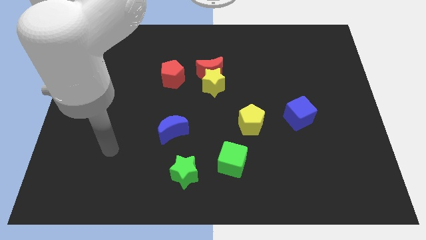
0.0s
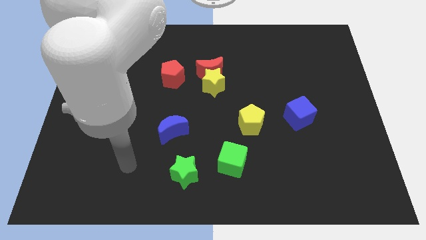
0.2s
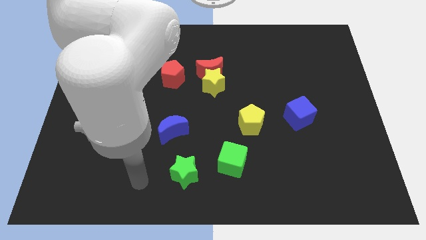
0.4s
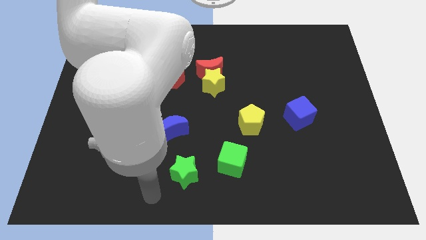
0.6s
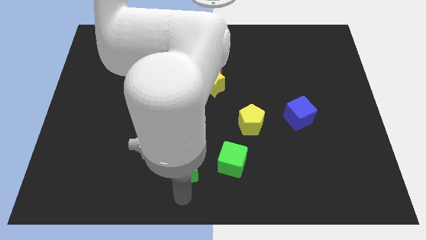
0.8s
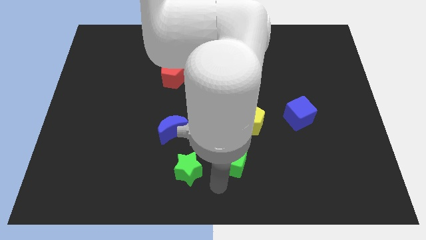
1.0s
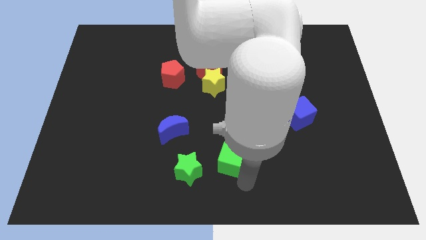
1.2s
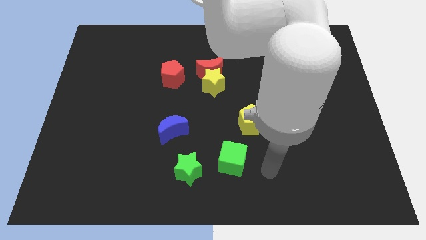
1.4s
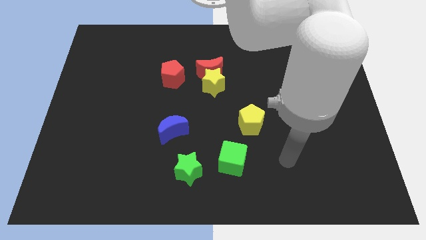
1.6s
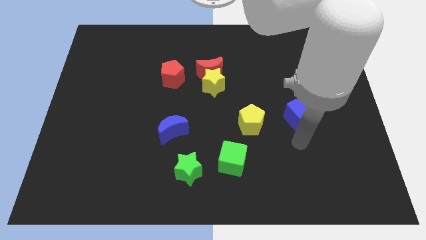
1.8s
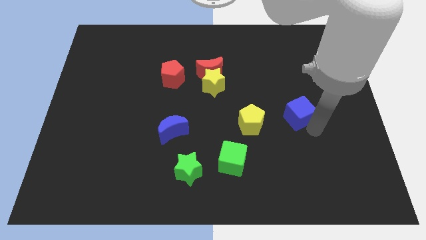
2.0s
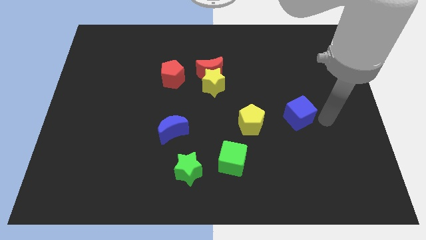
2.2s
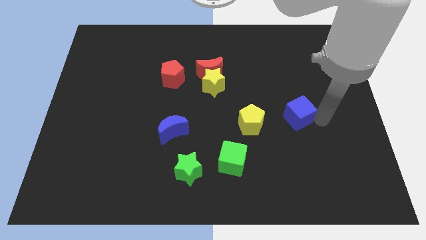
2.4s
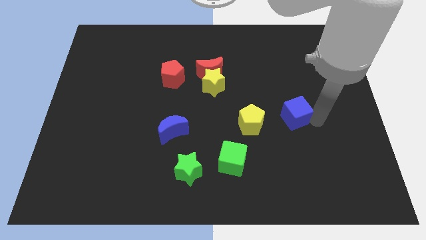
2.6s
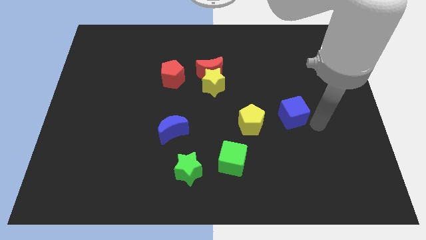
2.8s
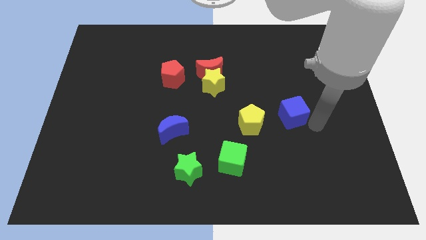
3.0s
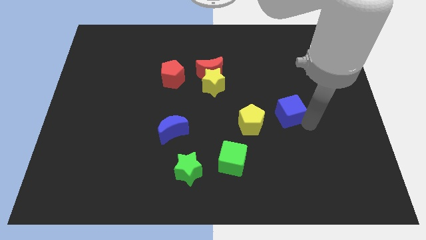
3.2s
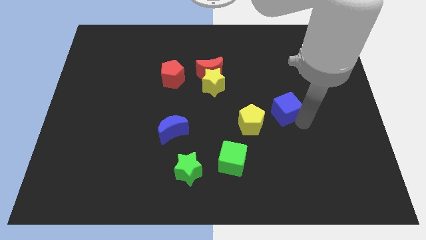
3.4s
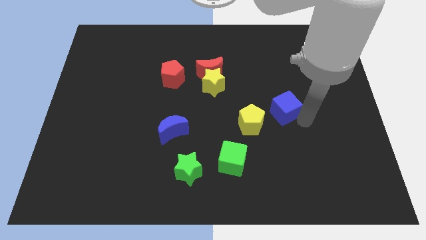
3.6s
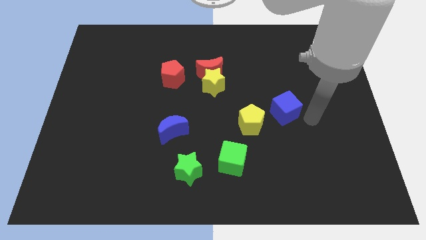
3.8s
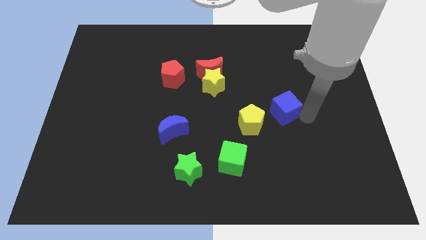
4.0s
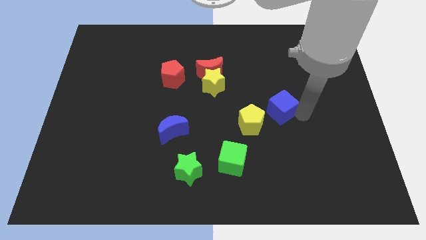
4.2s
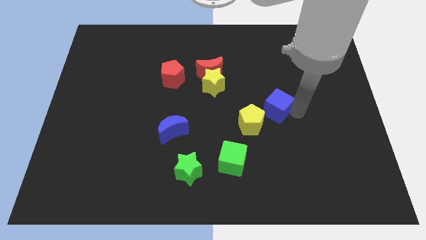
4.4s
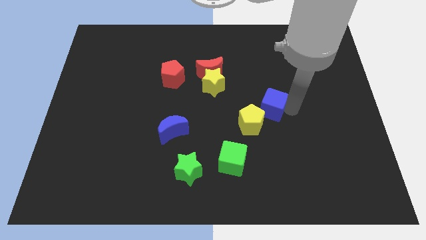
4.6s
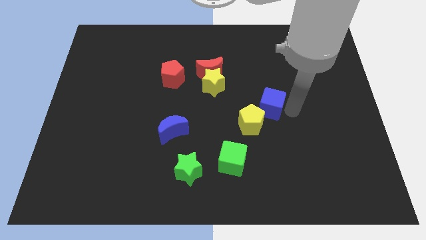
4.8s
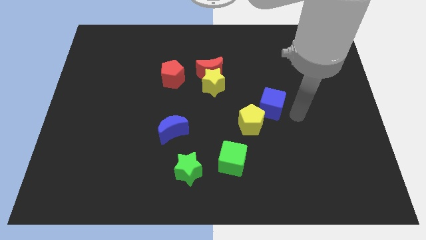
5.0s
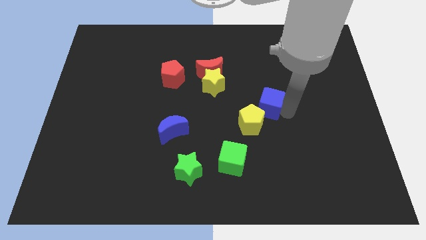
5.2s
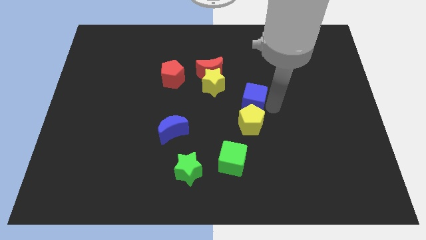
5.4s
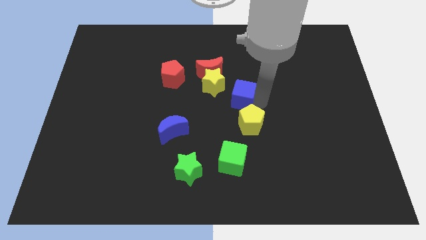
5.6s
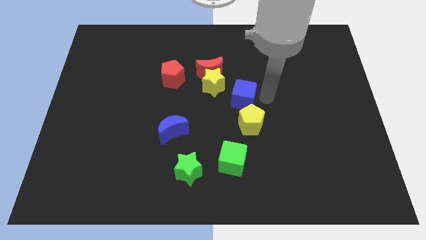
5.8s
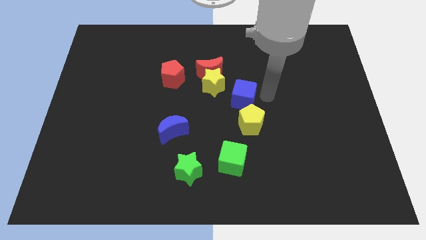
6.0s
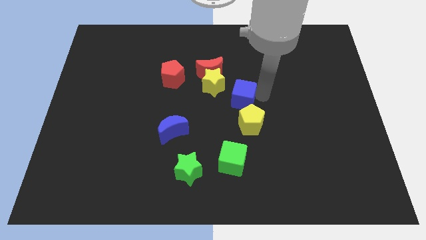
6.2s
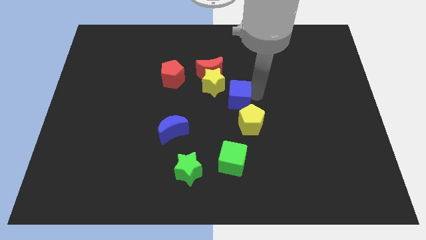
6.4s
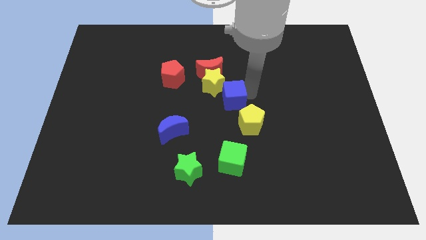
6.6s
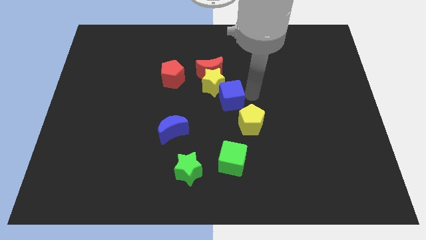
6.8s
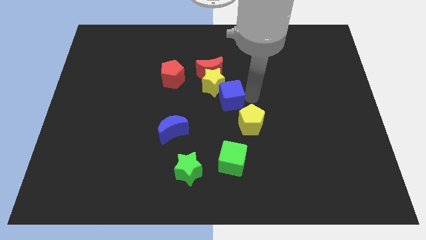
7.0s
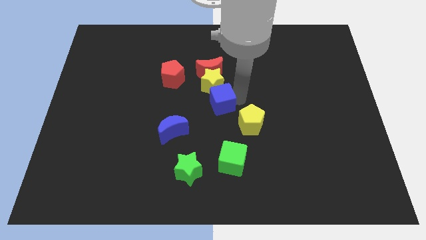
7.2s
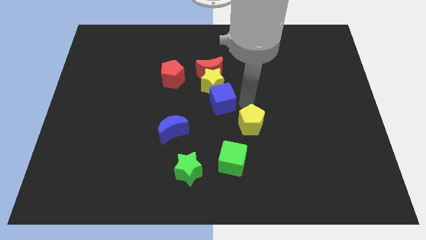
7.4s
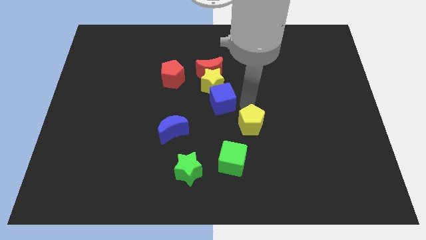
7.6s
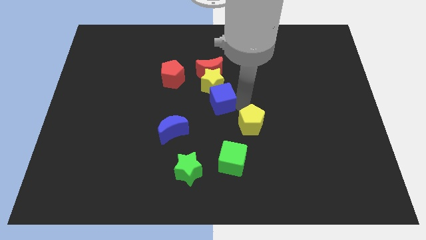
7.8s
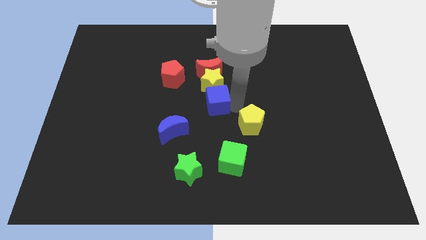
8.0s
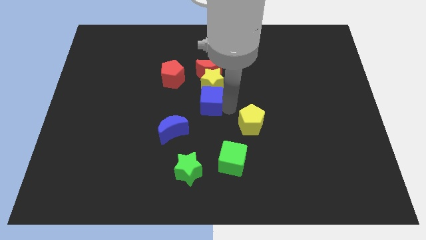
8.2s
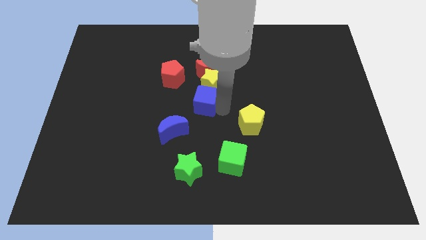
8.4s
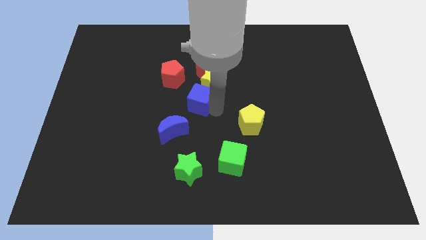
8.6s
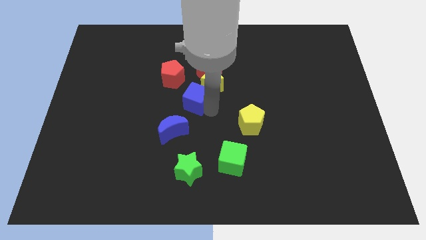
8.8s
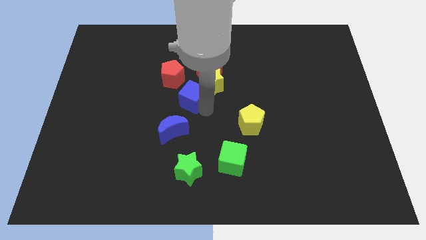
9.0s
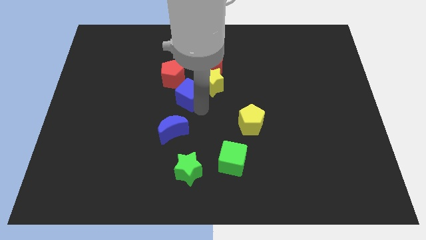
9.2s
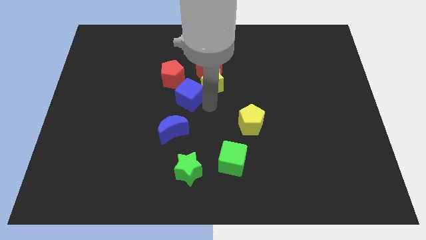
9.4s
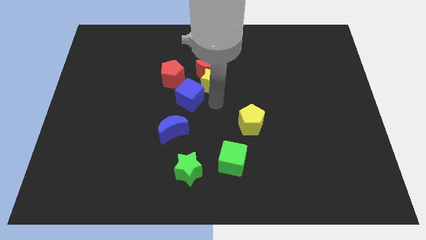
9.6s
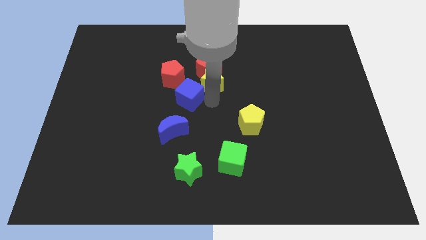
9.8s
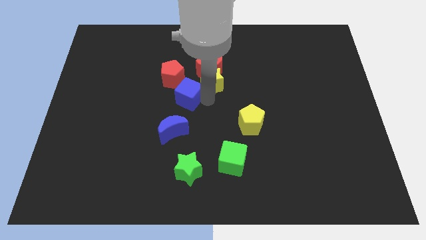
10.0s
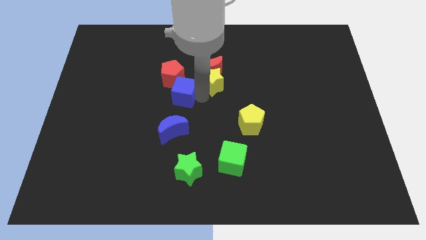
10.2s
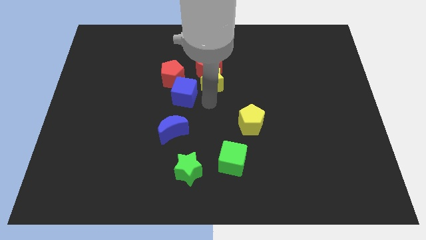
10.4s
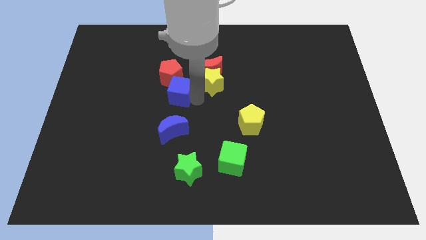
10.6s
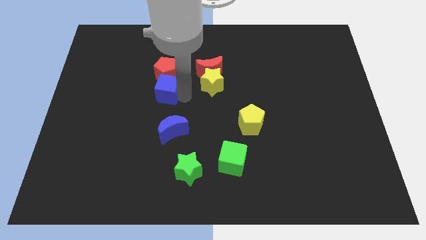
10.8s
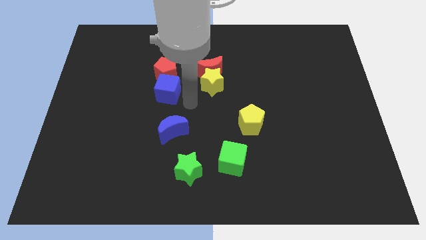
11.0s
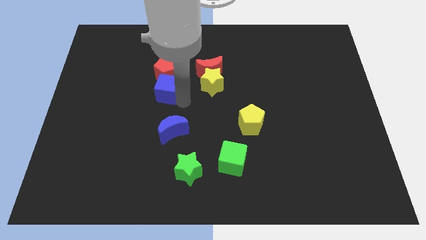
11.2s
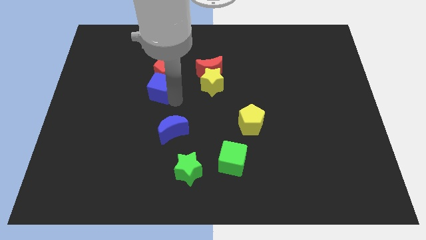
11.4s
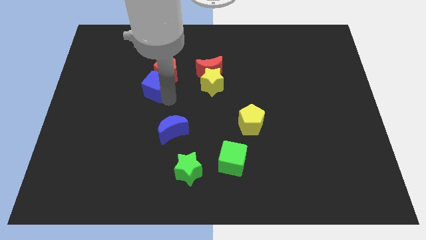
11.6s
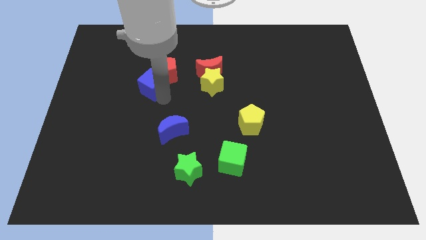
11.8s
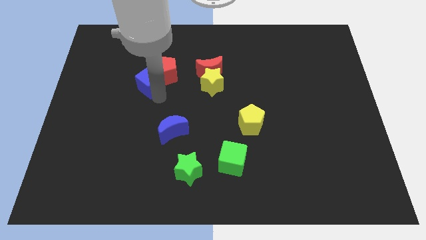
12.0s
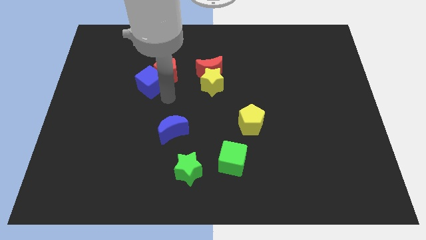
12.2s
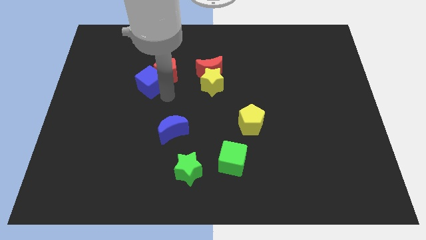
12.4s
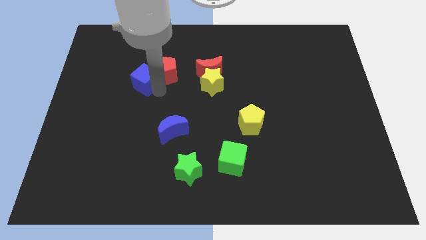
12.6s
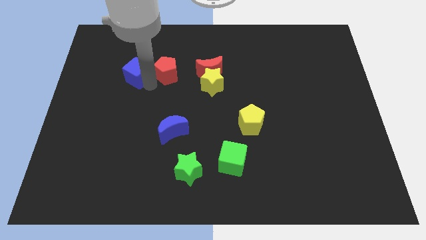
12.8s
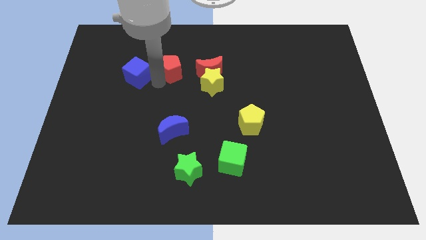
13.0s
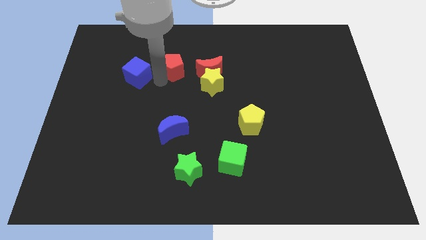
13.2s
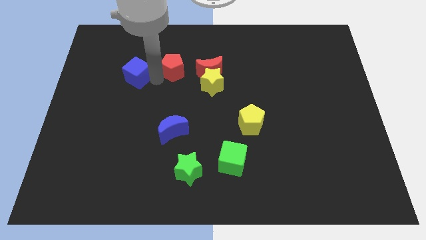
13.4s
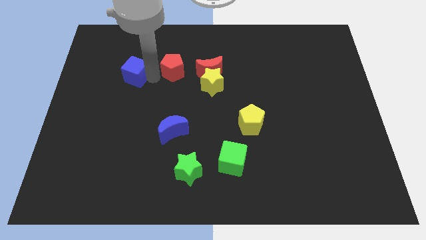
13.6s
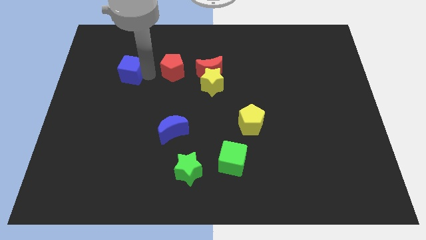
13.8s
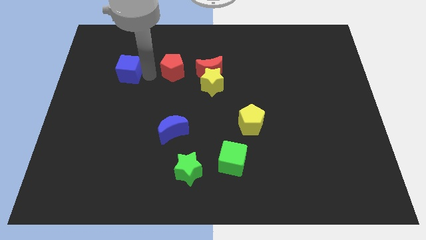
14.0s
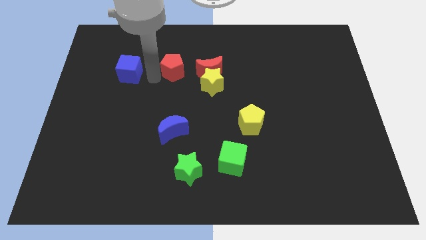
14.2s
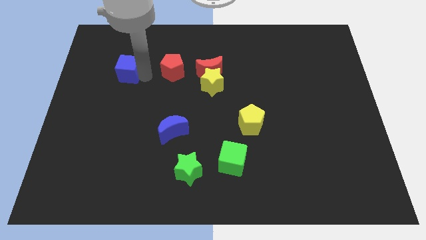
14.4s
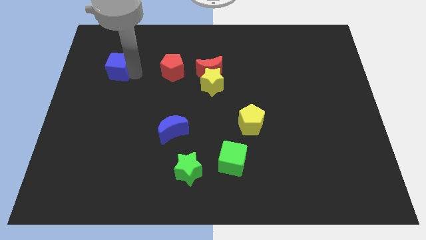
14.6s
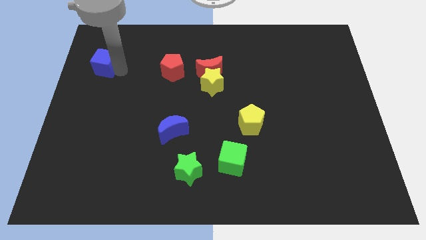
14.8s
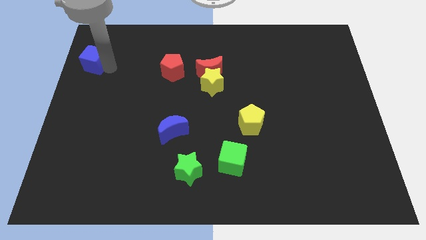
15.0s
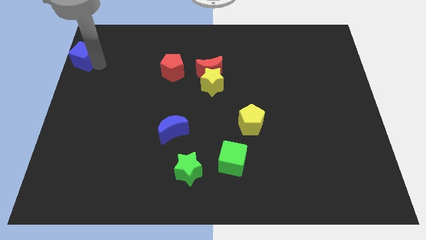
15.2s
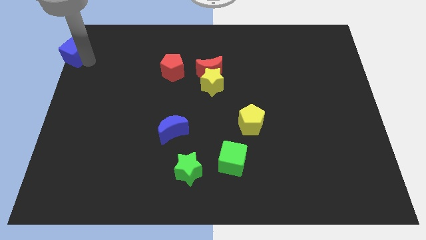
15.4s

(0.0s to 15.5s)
slide the blue cube to the upper left corner
